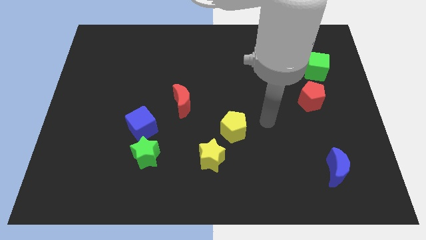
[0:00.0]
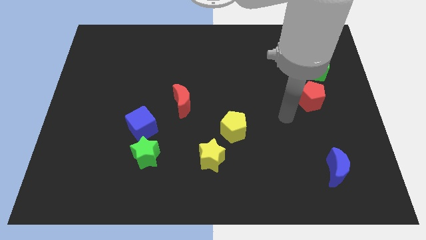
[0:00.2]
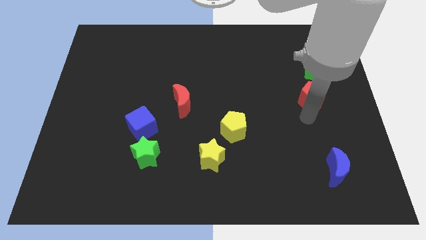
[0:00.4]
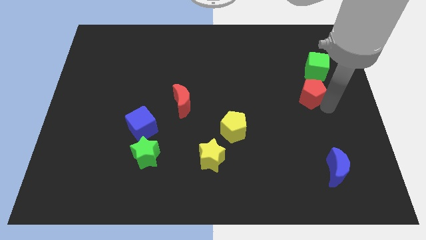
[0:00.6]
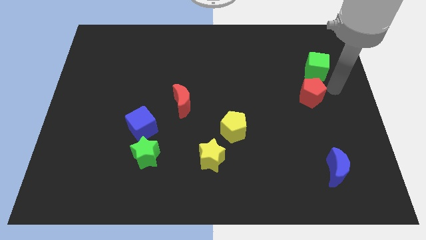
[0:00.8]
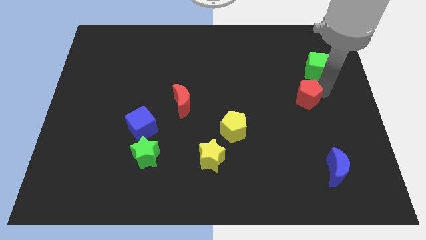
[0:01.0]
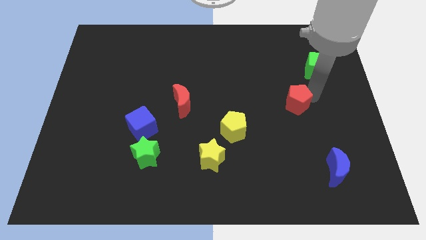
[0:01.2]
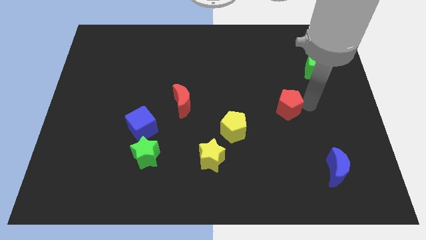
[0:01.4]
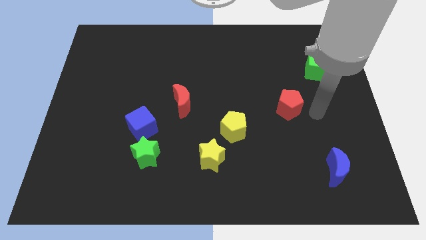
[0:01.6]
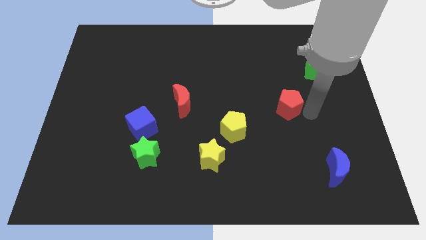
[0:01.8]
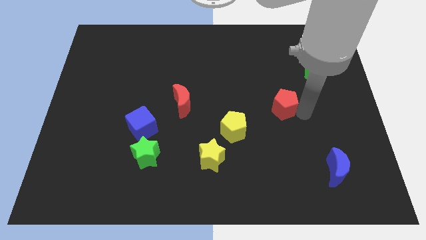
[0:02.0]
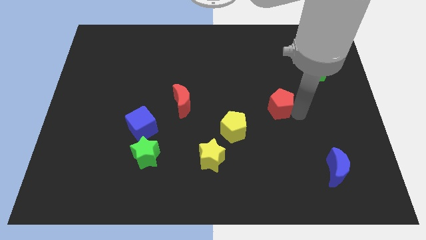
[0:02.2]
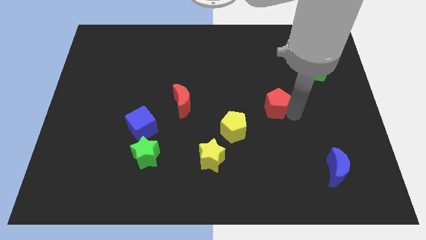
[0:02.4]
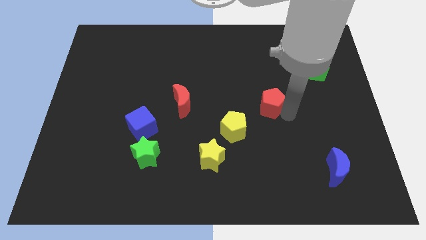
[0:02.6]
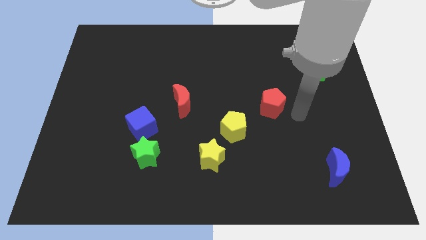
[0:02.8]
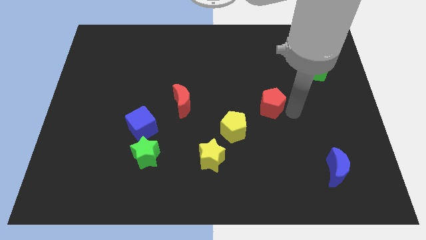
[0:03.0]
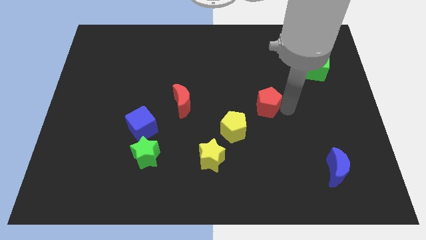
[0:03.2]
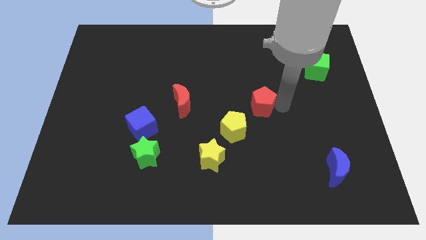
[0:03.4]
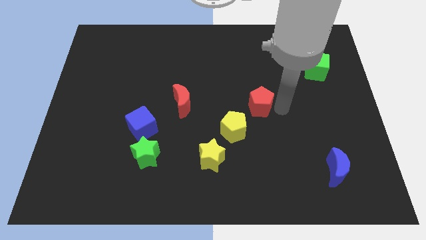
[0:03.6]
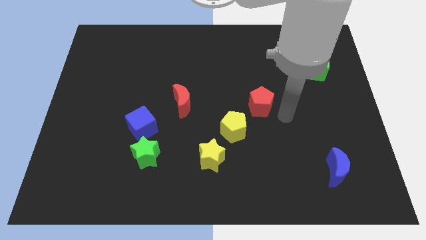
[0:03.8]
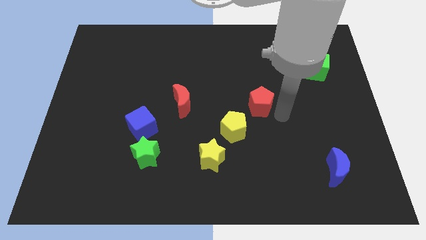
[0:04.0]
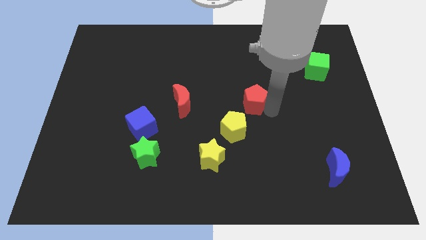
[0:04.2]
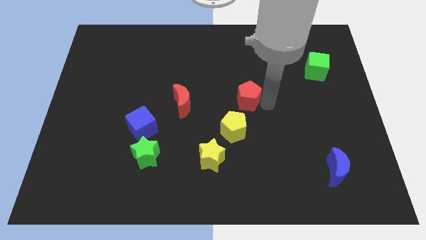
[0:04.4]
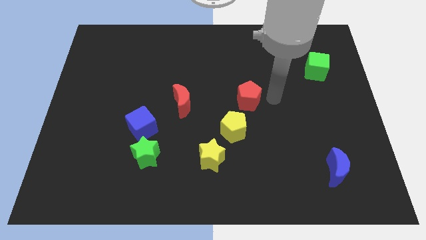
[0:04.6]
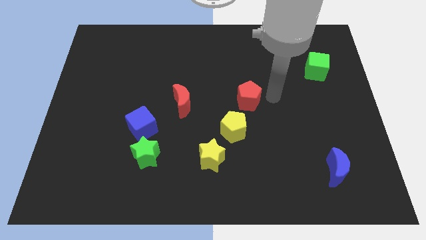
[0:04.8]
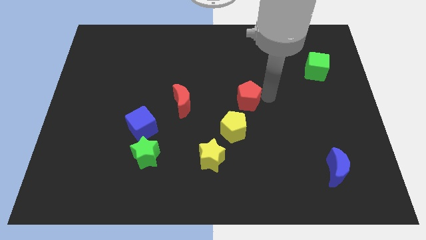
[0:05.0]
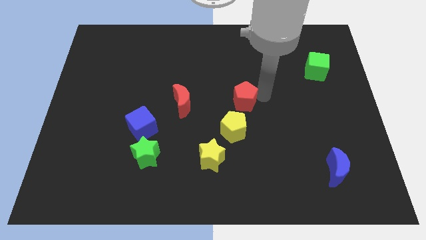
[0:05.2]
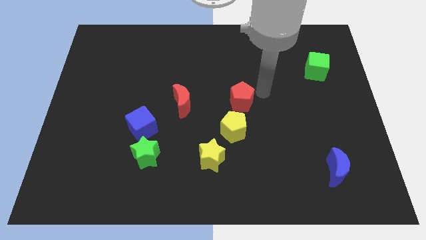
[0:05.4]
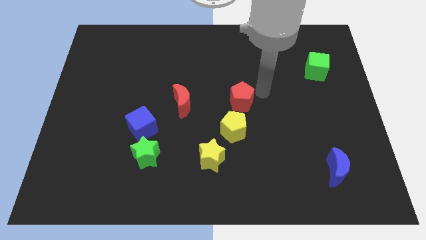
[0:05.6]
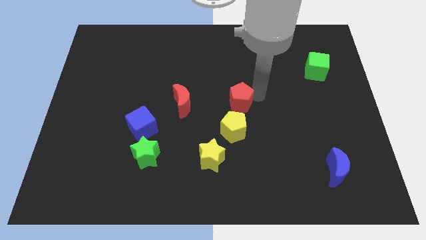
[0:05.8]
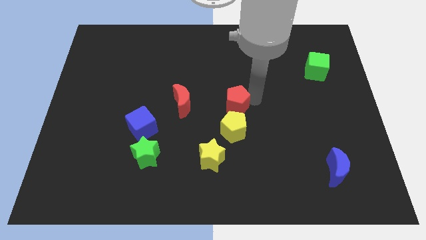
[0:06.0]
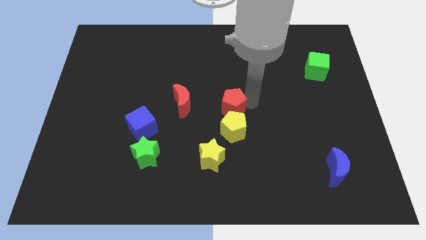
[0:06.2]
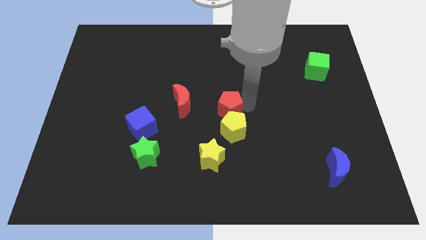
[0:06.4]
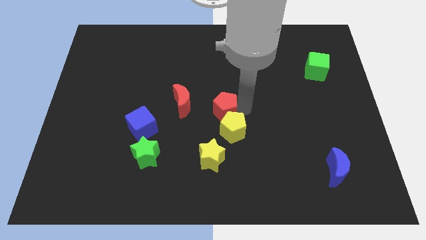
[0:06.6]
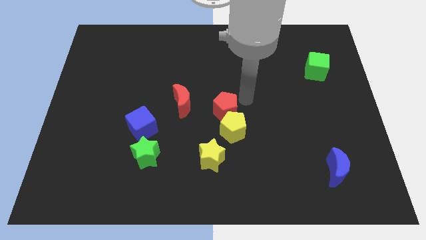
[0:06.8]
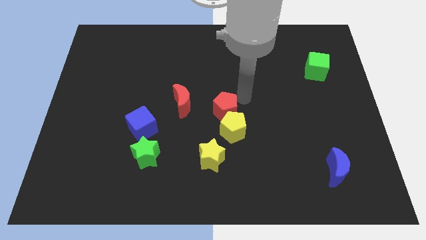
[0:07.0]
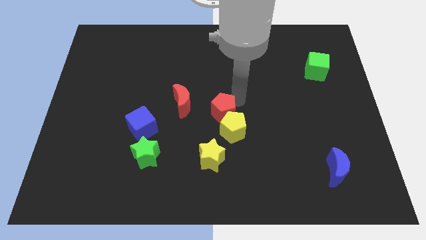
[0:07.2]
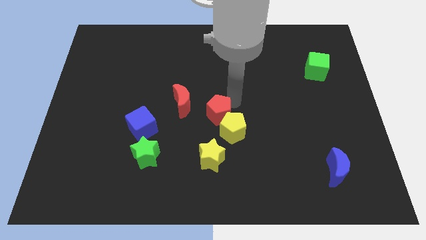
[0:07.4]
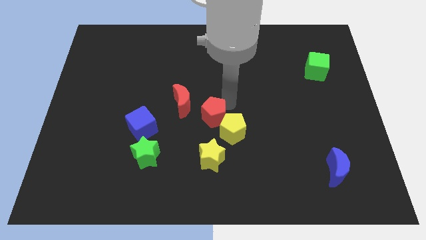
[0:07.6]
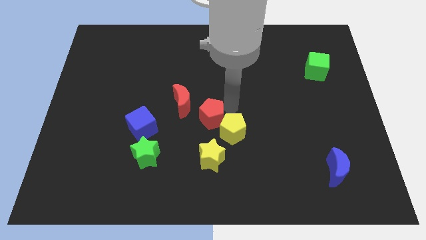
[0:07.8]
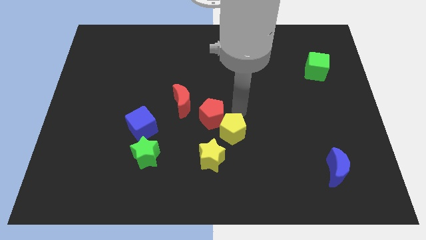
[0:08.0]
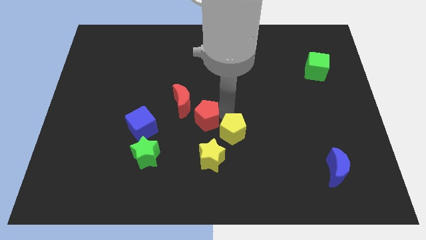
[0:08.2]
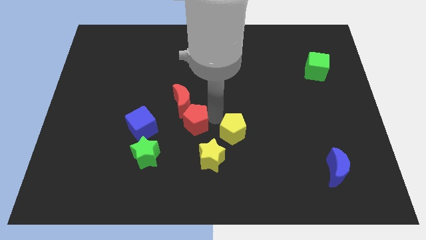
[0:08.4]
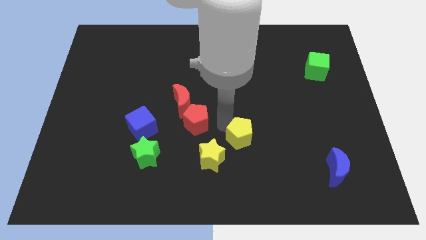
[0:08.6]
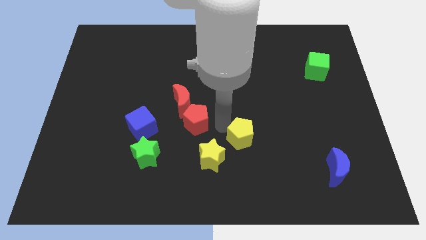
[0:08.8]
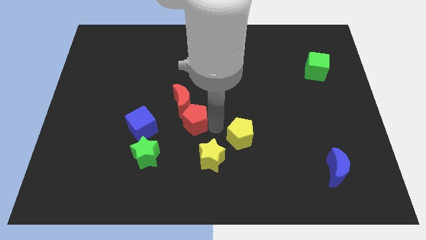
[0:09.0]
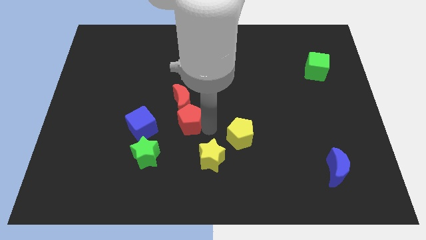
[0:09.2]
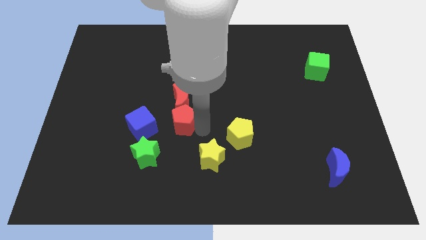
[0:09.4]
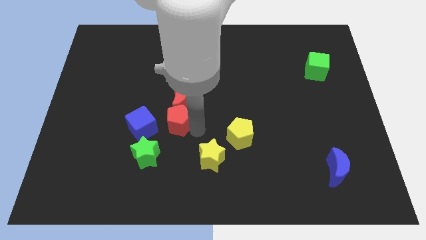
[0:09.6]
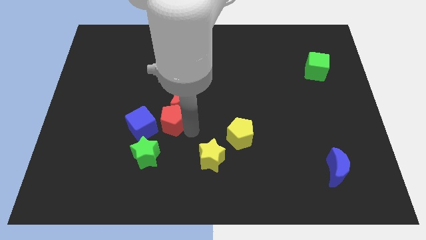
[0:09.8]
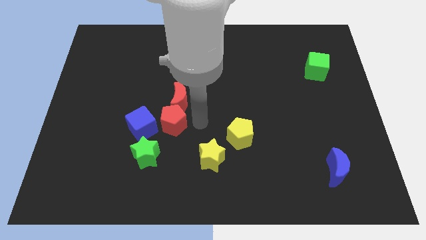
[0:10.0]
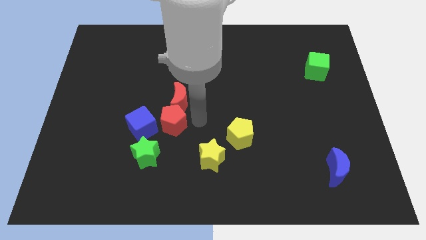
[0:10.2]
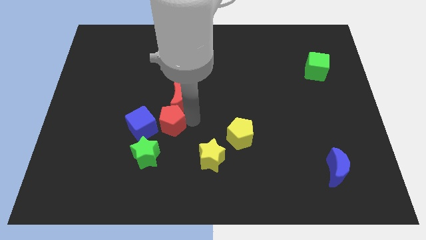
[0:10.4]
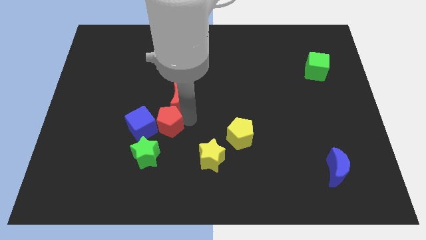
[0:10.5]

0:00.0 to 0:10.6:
move the red pentagon next to the blue cube

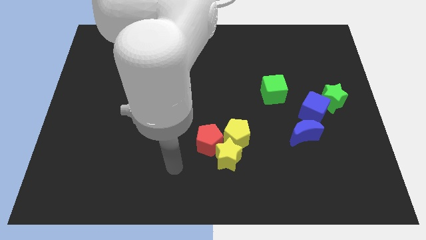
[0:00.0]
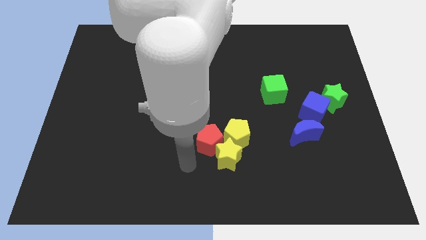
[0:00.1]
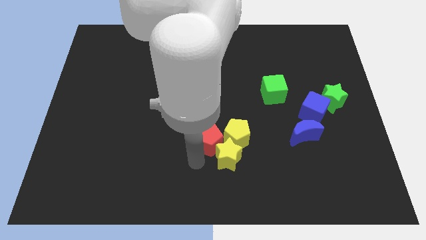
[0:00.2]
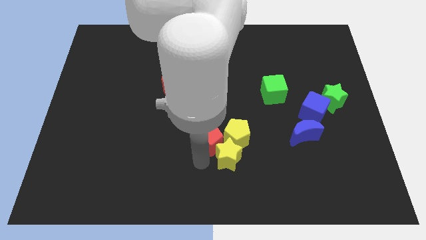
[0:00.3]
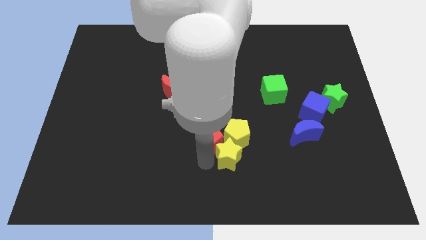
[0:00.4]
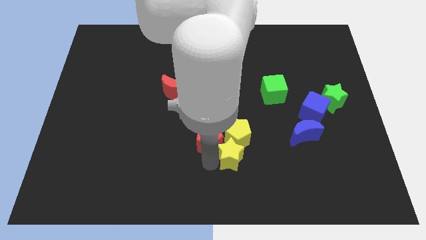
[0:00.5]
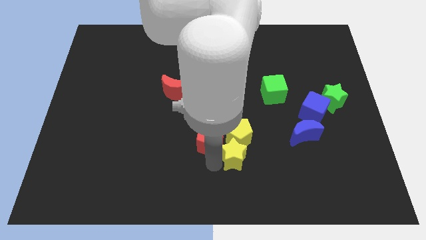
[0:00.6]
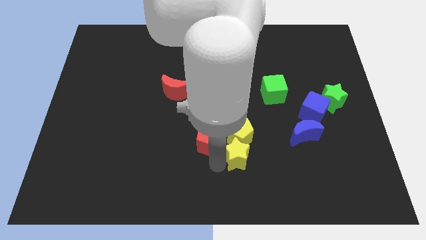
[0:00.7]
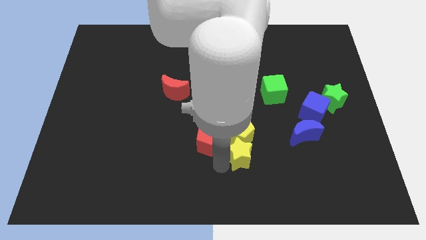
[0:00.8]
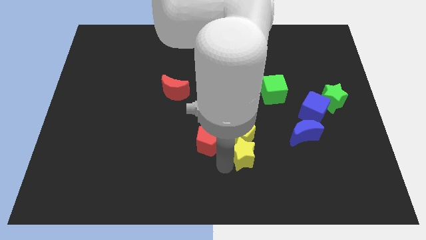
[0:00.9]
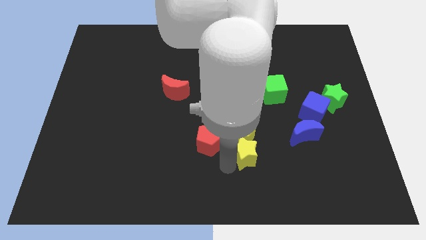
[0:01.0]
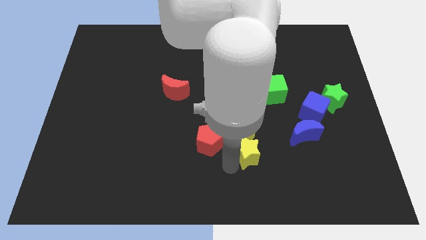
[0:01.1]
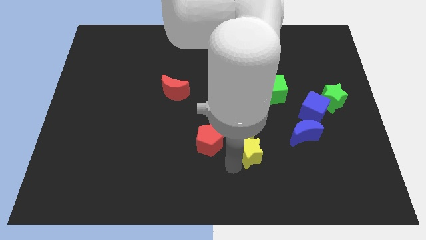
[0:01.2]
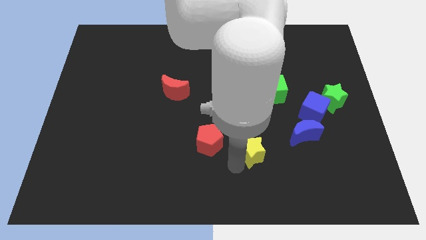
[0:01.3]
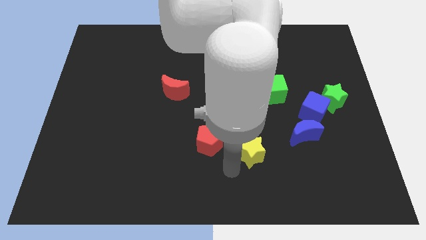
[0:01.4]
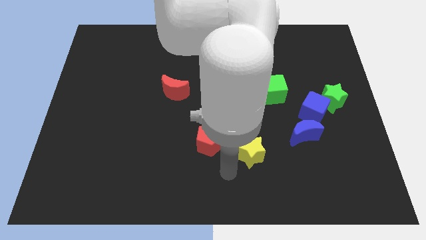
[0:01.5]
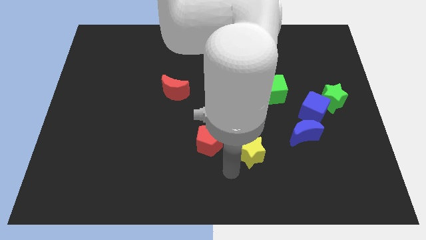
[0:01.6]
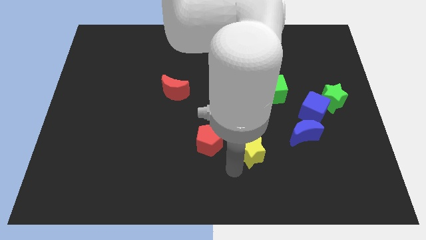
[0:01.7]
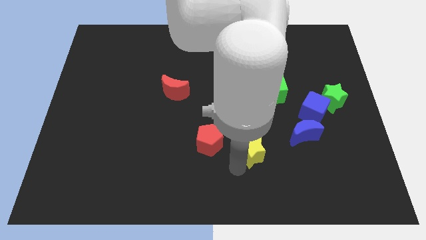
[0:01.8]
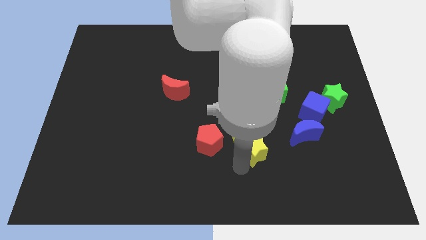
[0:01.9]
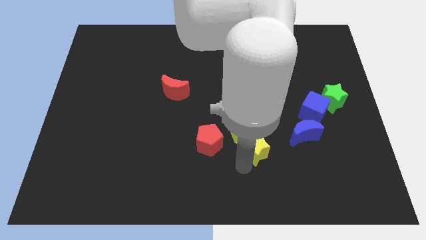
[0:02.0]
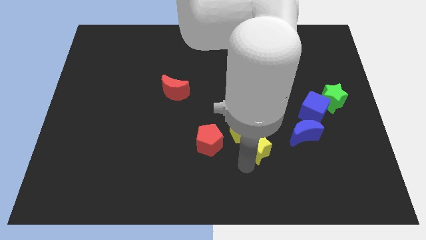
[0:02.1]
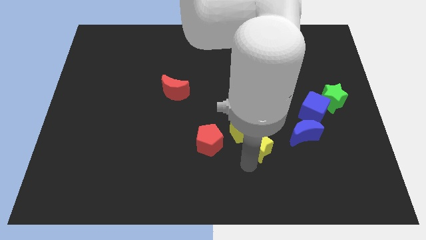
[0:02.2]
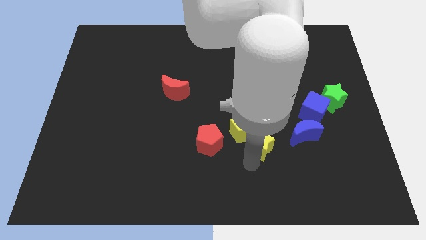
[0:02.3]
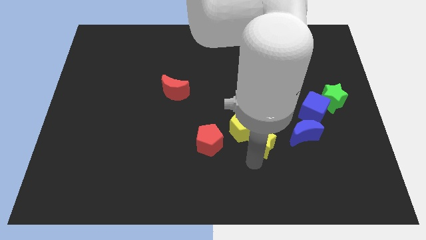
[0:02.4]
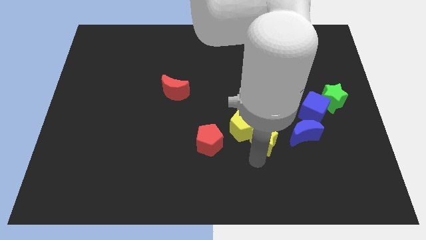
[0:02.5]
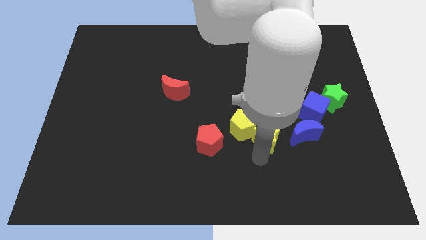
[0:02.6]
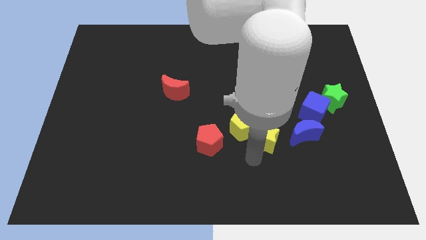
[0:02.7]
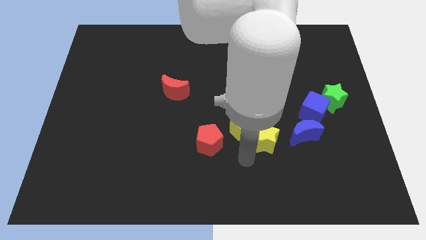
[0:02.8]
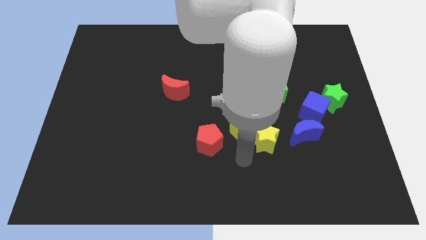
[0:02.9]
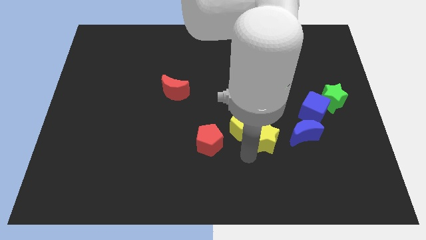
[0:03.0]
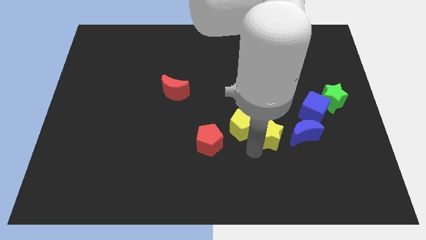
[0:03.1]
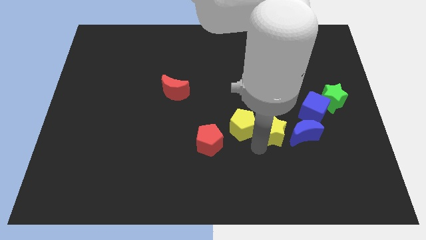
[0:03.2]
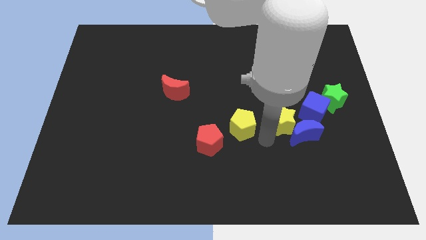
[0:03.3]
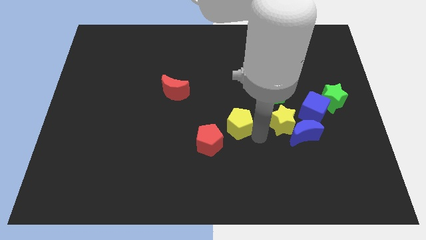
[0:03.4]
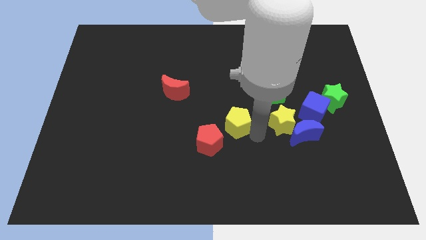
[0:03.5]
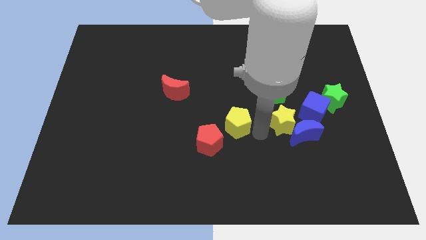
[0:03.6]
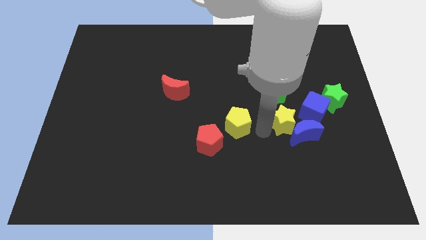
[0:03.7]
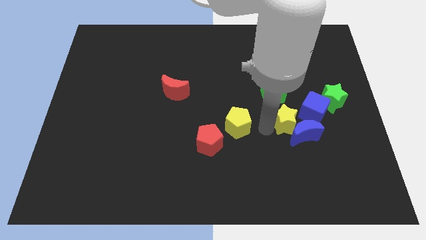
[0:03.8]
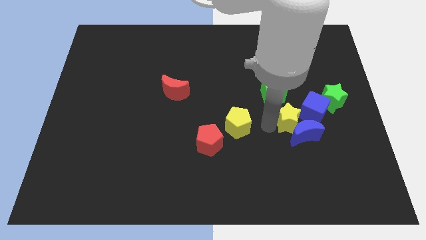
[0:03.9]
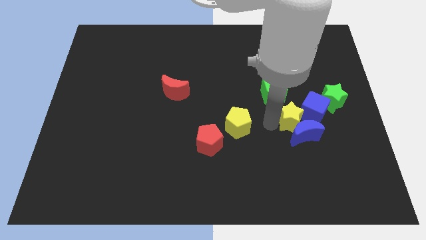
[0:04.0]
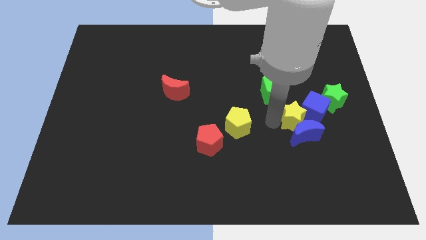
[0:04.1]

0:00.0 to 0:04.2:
move the yellow star close to the blue cube
